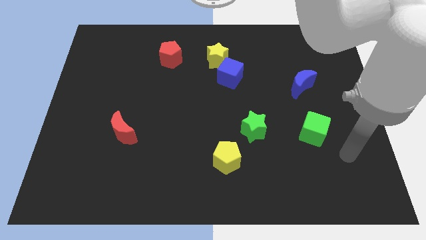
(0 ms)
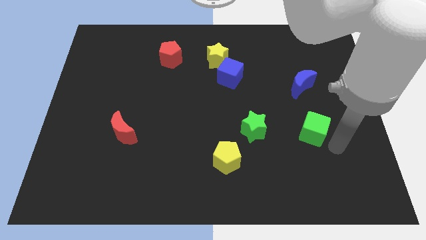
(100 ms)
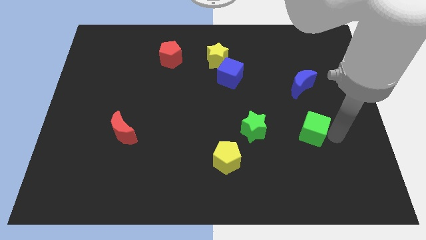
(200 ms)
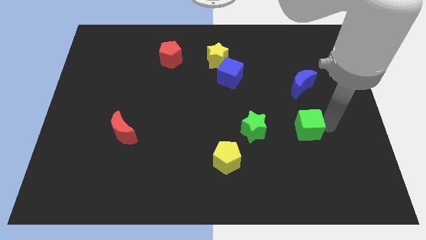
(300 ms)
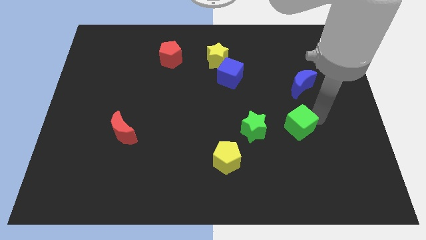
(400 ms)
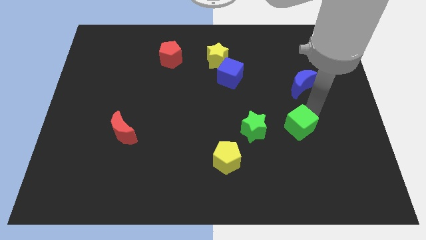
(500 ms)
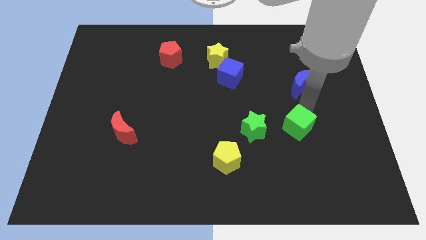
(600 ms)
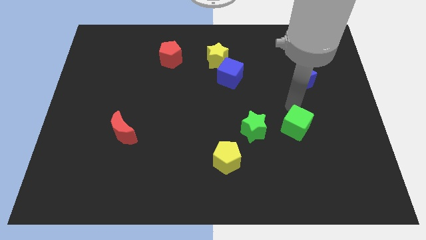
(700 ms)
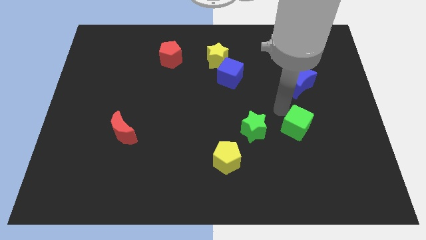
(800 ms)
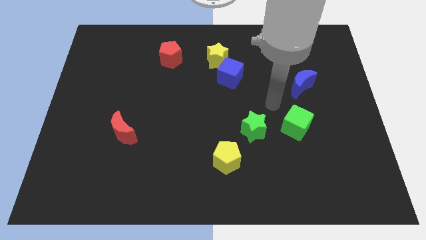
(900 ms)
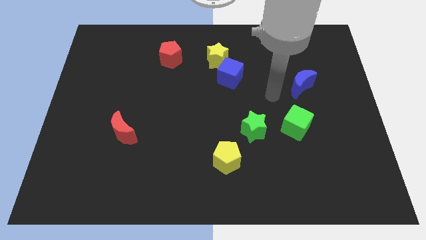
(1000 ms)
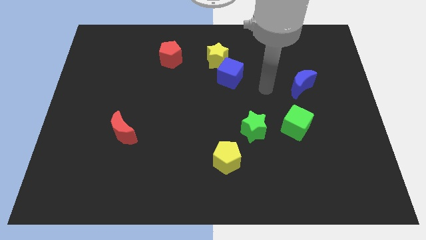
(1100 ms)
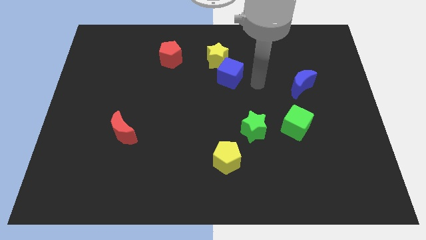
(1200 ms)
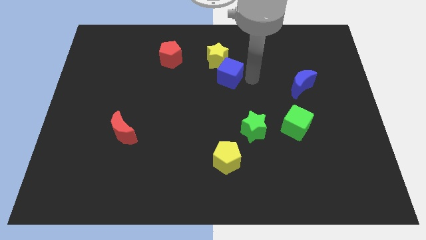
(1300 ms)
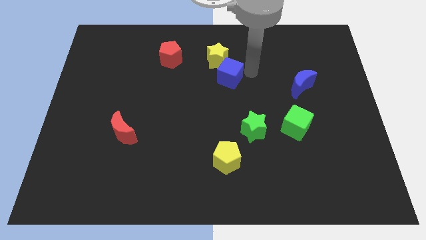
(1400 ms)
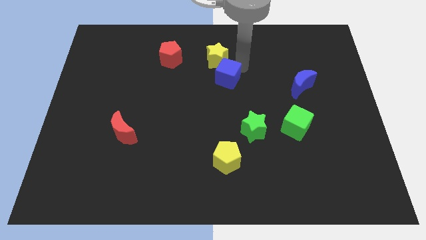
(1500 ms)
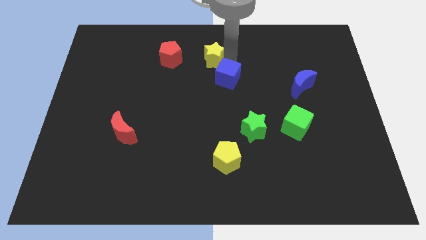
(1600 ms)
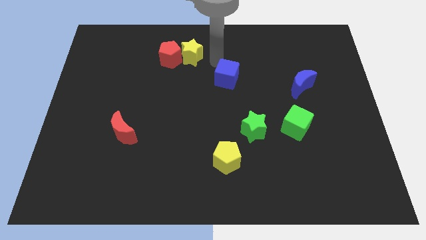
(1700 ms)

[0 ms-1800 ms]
separate the blue cube from the yellow star

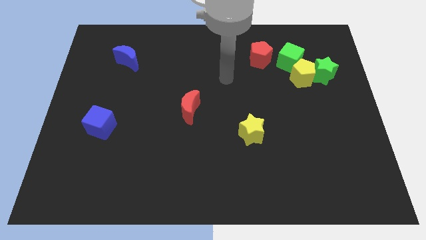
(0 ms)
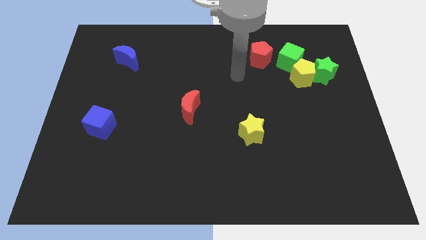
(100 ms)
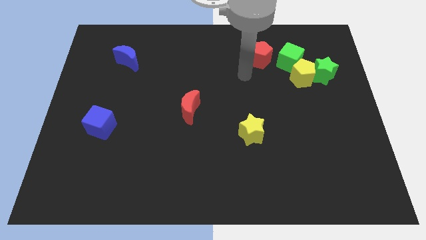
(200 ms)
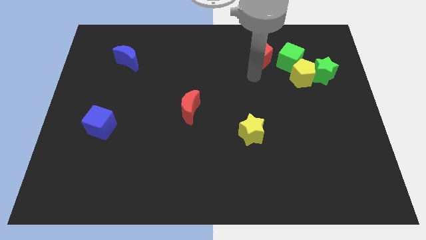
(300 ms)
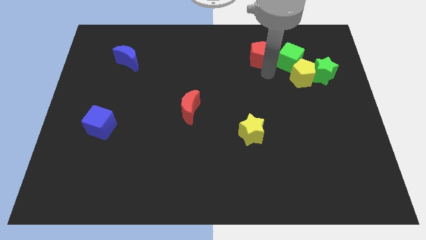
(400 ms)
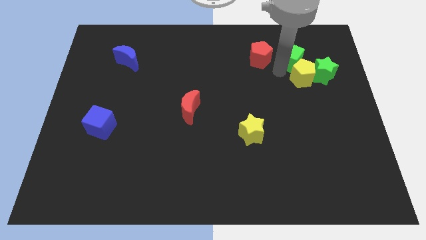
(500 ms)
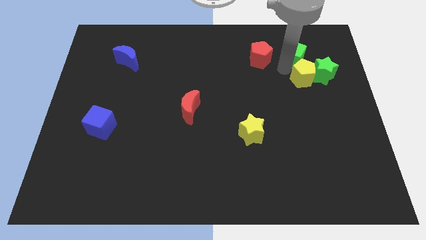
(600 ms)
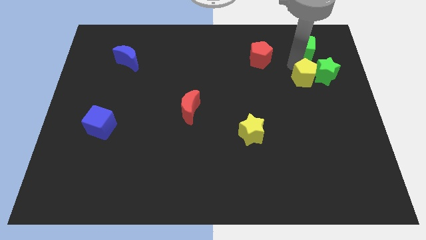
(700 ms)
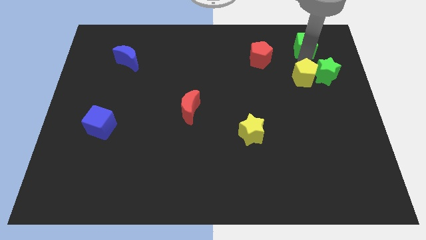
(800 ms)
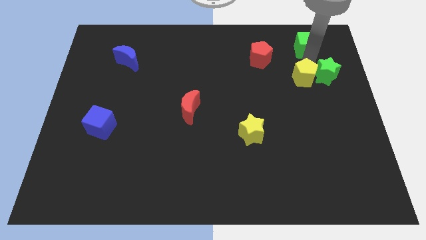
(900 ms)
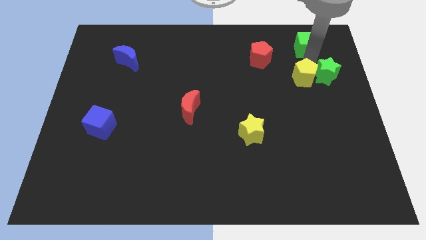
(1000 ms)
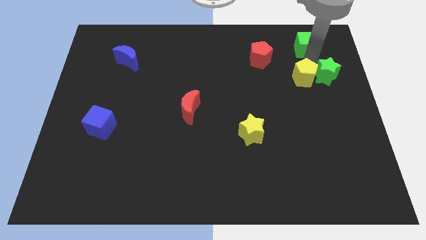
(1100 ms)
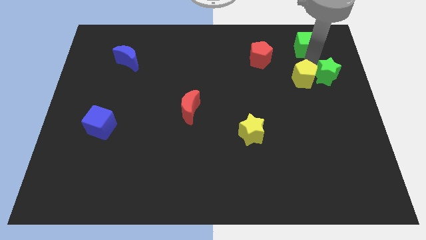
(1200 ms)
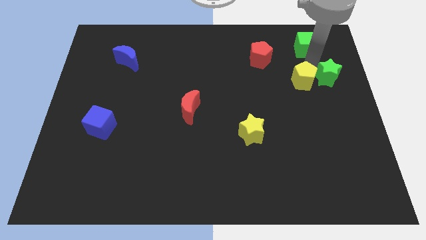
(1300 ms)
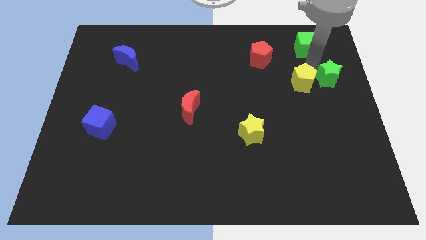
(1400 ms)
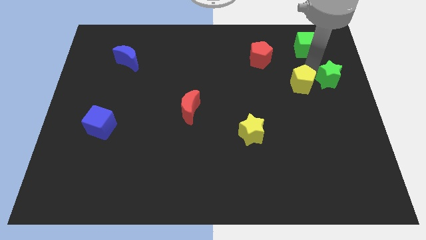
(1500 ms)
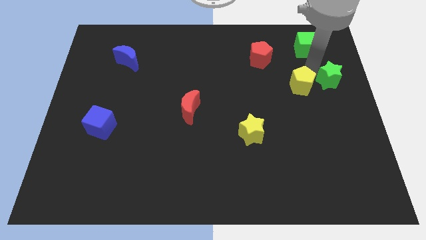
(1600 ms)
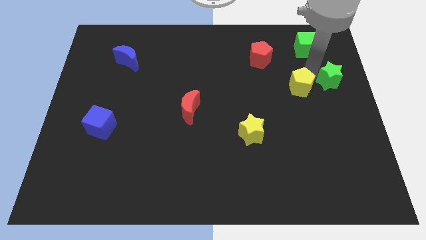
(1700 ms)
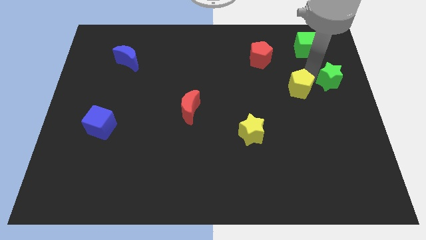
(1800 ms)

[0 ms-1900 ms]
pull the yellow pentagon apart from the green star and green cube

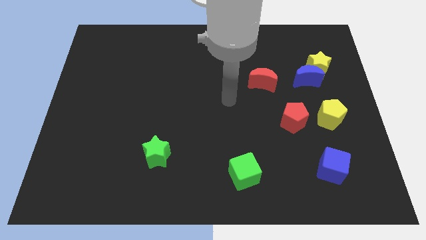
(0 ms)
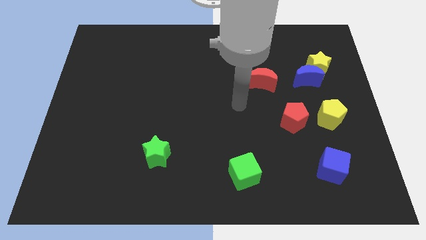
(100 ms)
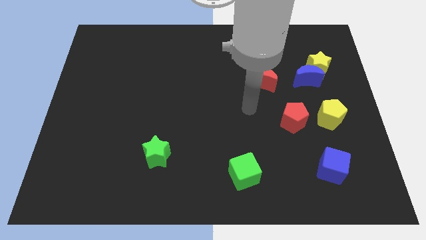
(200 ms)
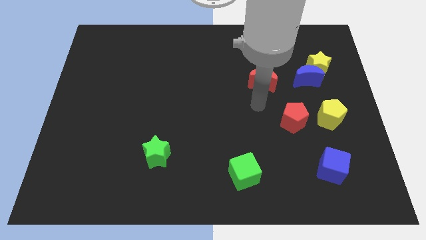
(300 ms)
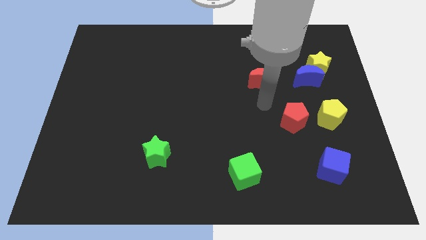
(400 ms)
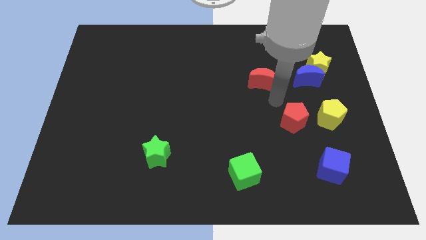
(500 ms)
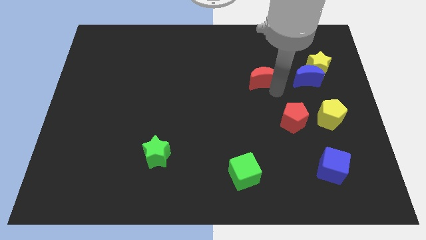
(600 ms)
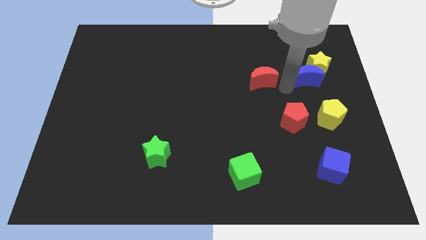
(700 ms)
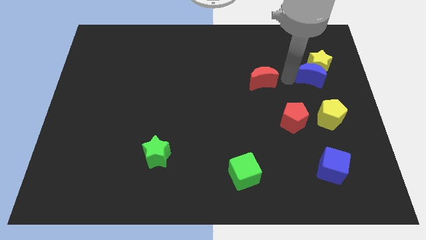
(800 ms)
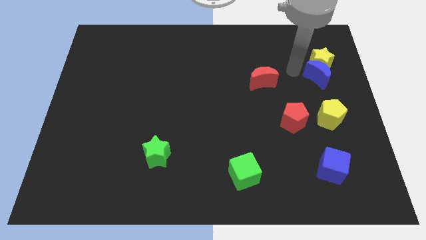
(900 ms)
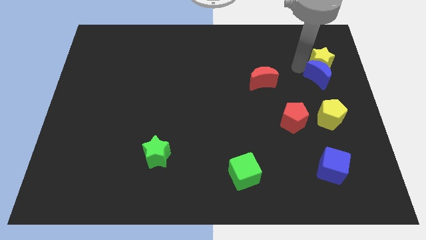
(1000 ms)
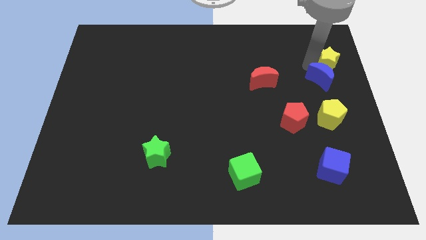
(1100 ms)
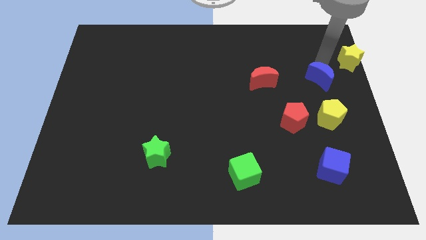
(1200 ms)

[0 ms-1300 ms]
move the blue moon away from the yellow star

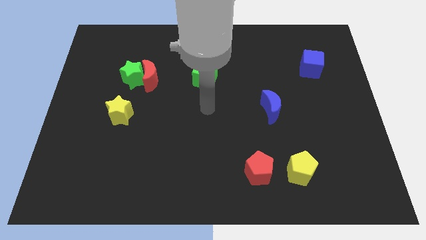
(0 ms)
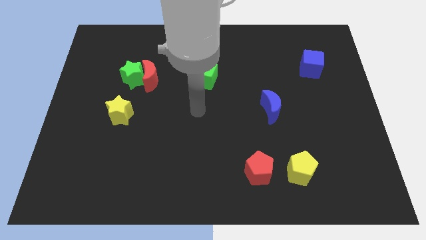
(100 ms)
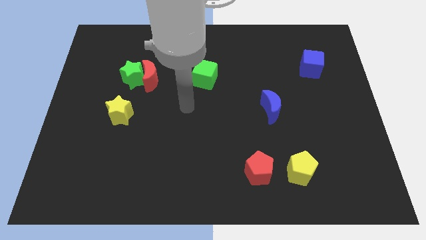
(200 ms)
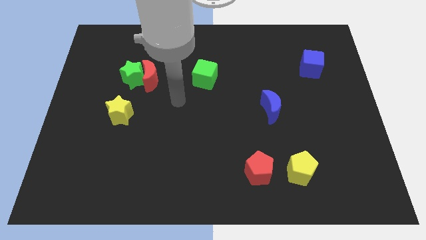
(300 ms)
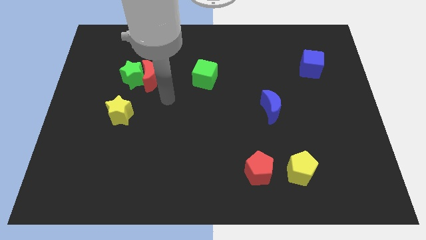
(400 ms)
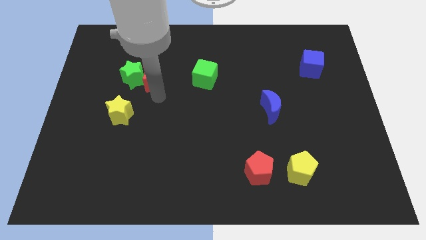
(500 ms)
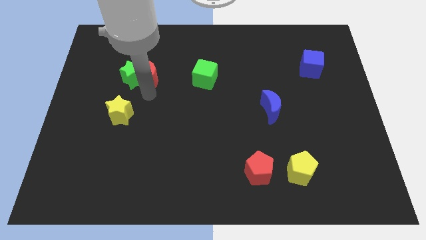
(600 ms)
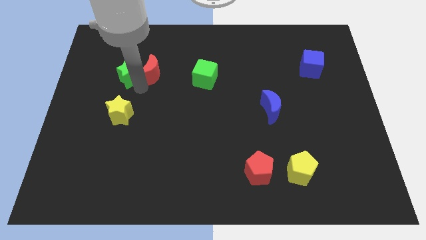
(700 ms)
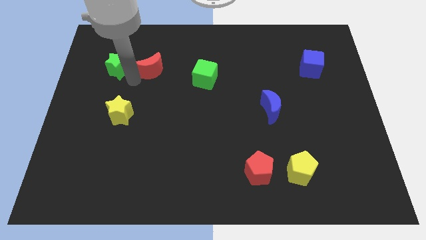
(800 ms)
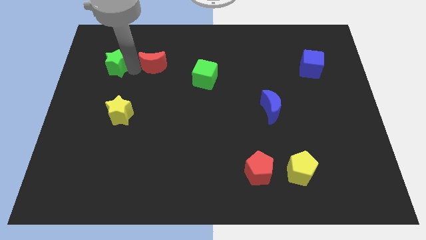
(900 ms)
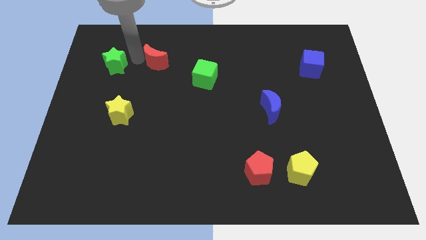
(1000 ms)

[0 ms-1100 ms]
pull the red moon apart from the green star

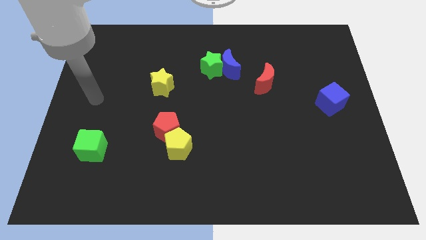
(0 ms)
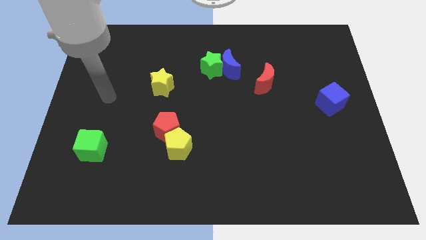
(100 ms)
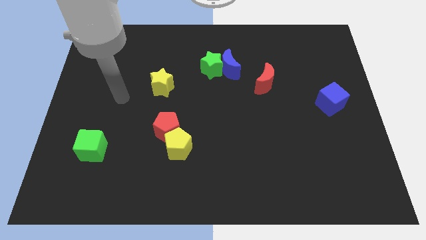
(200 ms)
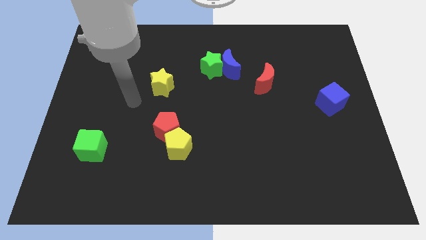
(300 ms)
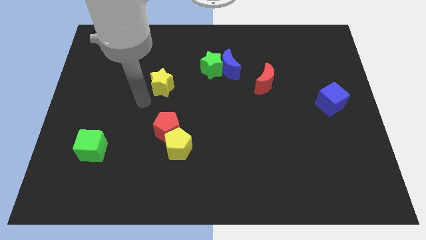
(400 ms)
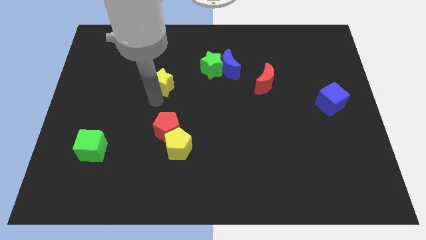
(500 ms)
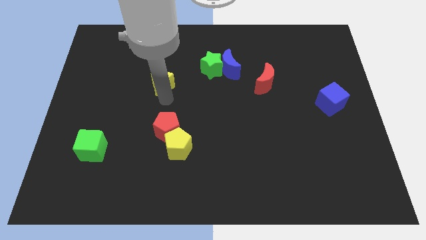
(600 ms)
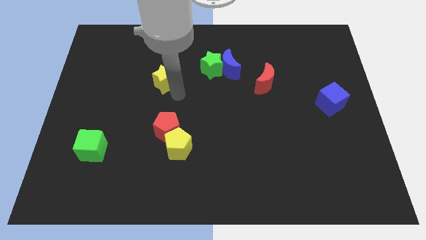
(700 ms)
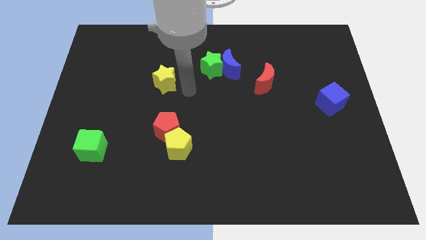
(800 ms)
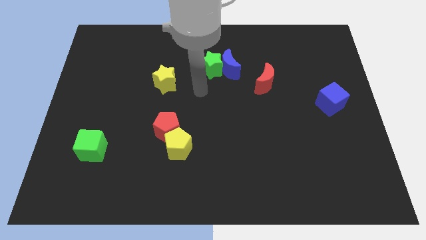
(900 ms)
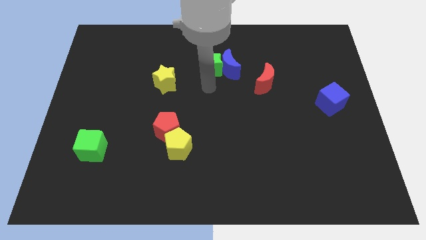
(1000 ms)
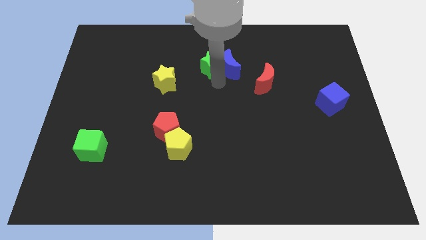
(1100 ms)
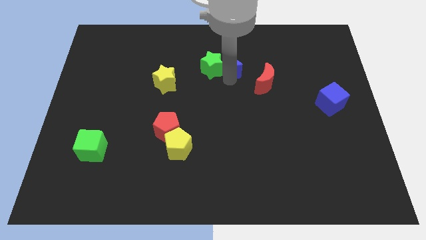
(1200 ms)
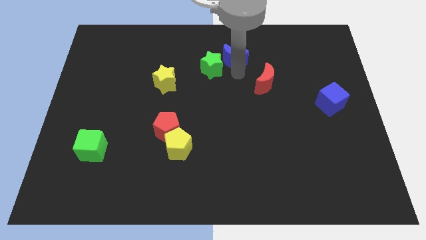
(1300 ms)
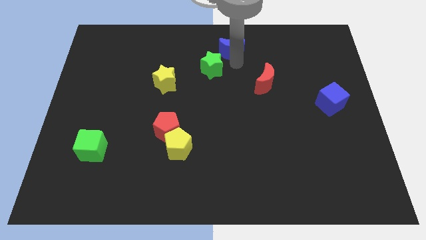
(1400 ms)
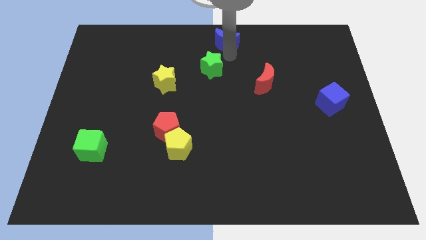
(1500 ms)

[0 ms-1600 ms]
move the green star away from the blue moon

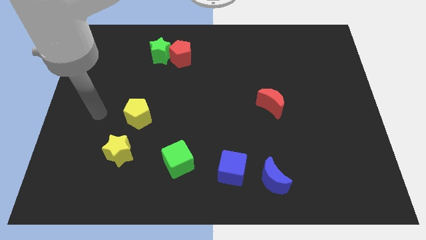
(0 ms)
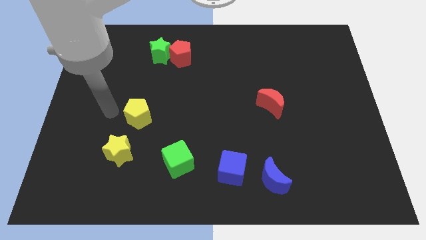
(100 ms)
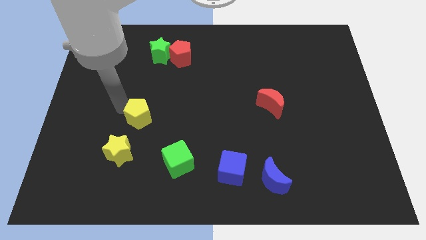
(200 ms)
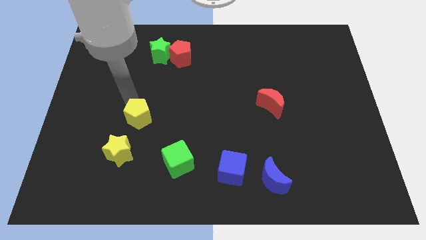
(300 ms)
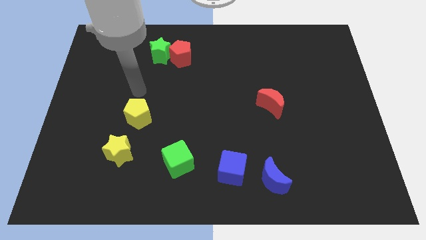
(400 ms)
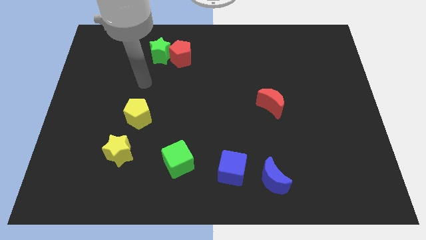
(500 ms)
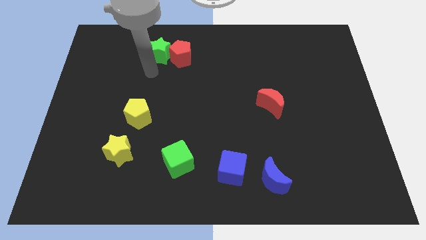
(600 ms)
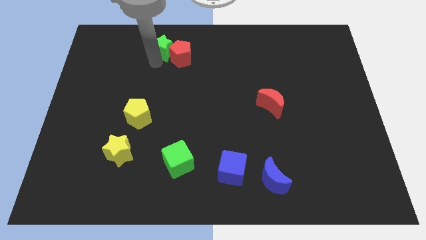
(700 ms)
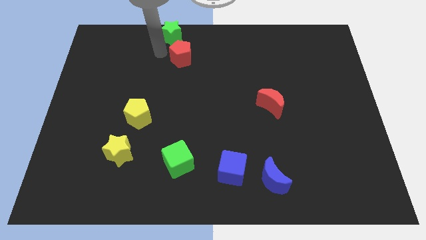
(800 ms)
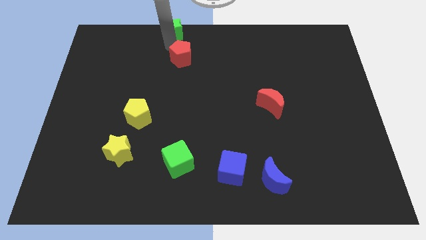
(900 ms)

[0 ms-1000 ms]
pull the red pentagon apart from the green star

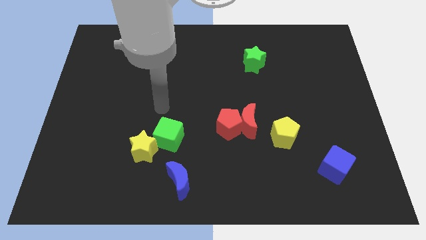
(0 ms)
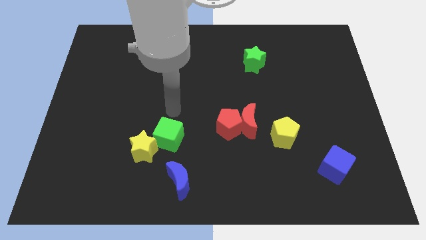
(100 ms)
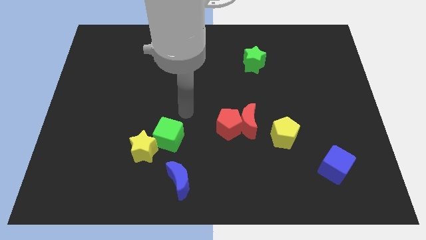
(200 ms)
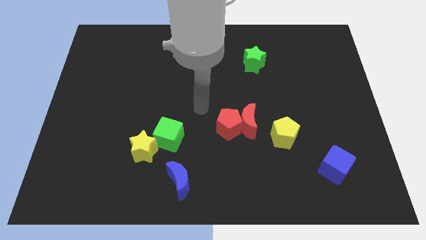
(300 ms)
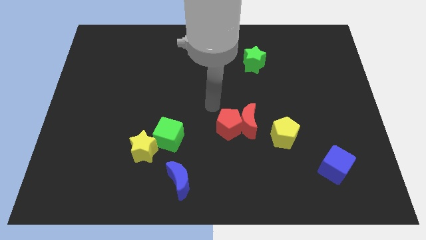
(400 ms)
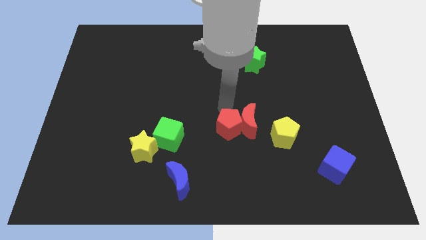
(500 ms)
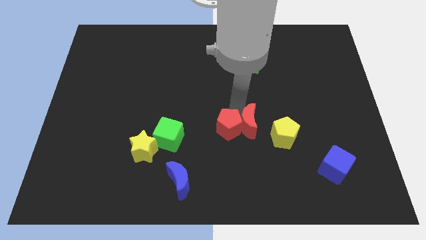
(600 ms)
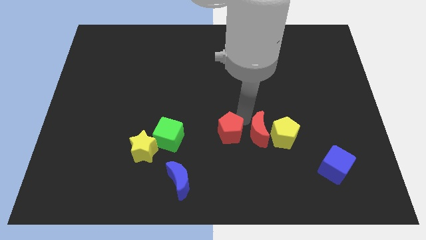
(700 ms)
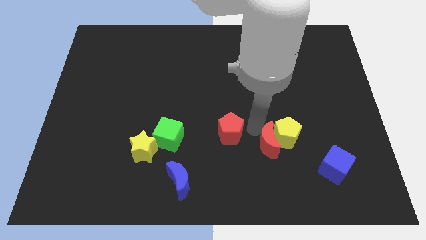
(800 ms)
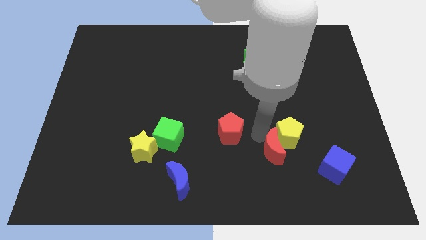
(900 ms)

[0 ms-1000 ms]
pull the red pentagon apart from the red moon
